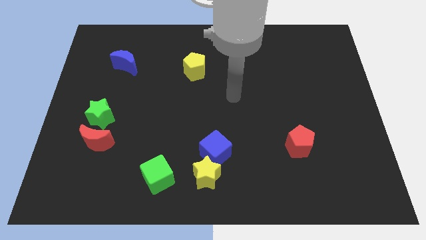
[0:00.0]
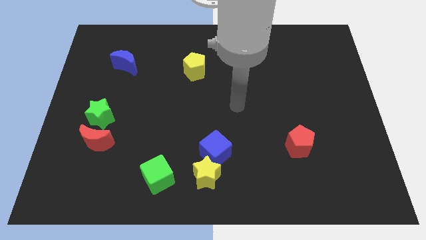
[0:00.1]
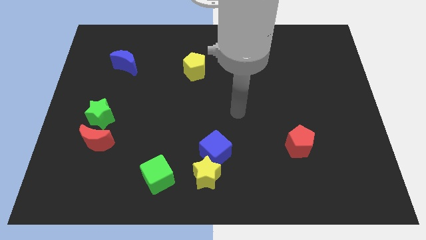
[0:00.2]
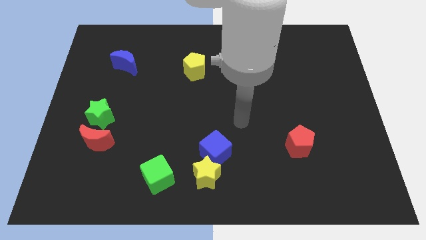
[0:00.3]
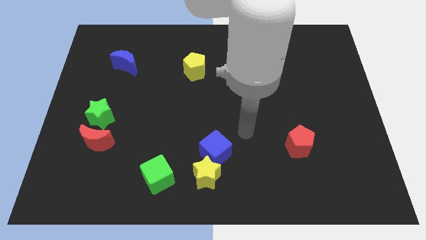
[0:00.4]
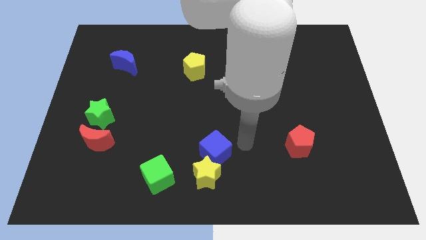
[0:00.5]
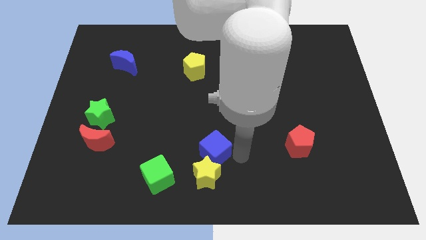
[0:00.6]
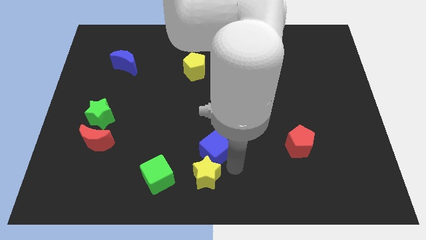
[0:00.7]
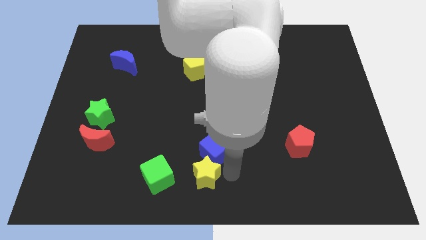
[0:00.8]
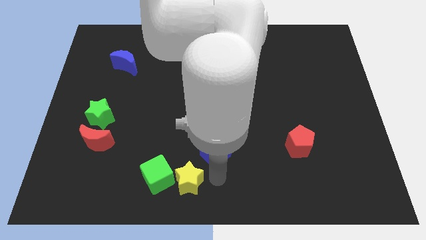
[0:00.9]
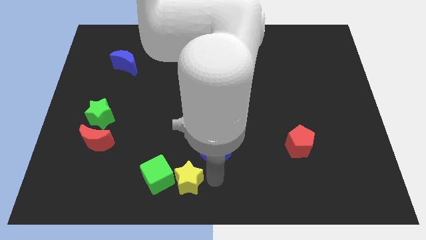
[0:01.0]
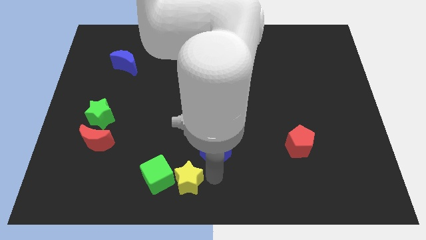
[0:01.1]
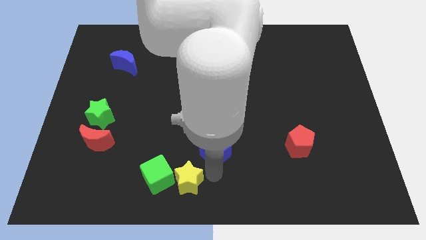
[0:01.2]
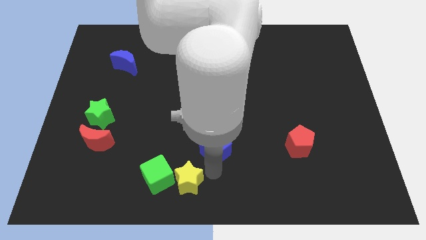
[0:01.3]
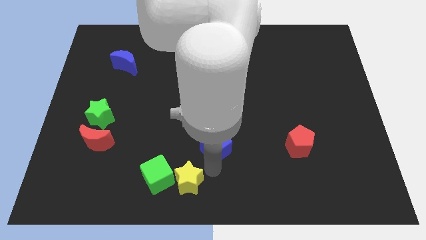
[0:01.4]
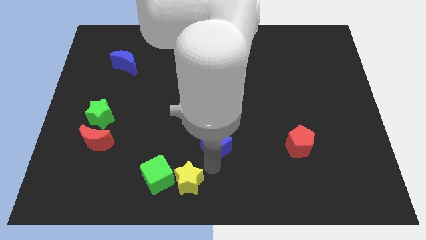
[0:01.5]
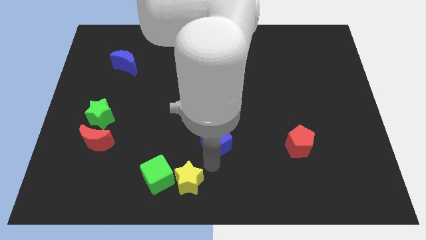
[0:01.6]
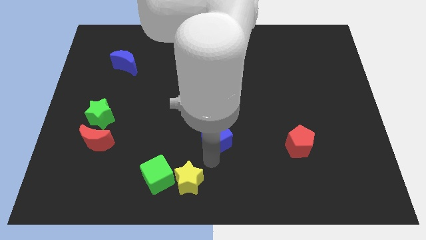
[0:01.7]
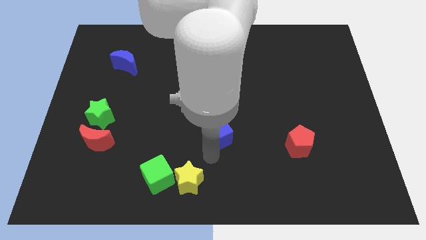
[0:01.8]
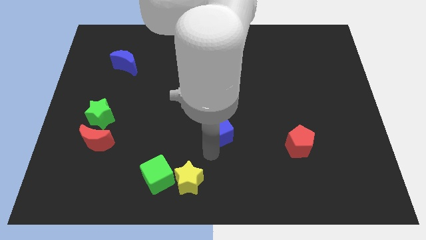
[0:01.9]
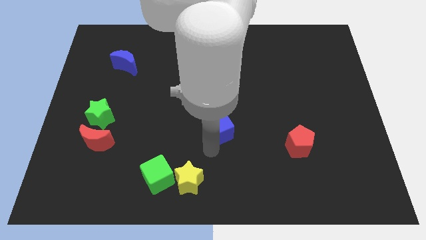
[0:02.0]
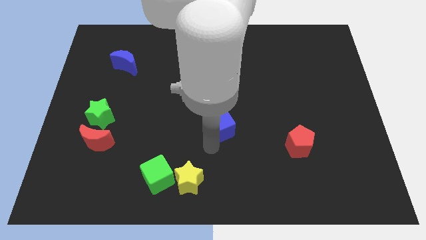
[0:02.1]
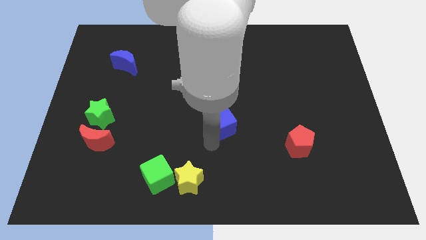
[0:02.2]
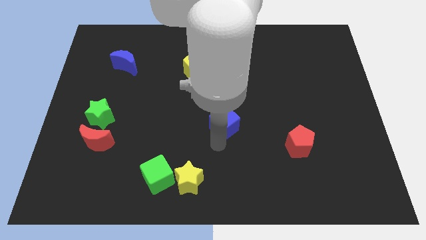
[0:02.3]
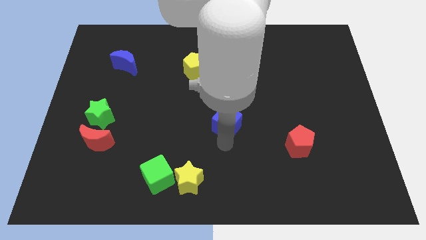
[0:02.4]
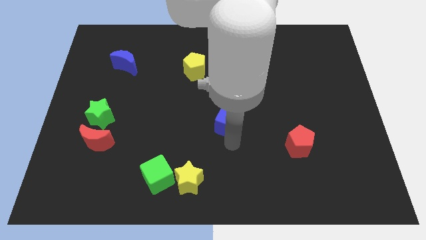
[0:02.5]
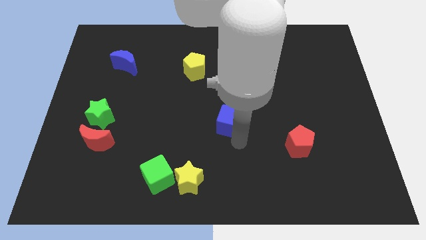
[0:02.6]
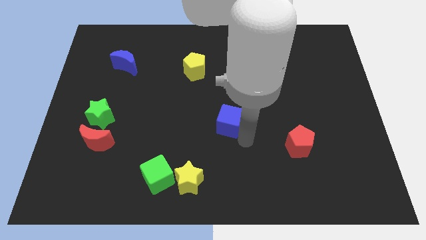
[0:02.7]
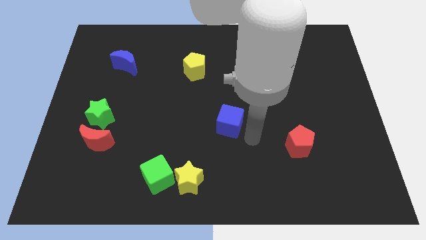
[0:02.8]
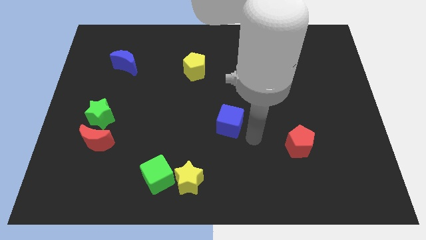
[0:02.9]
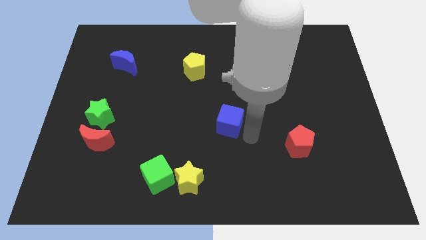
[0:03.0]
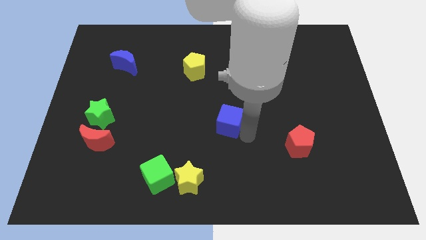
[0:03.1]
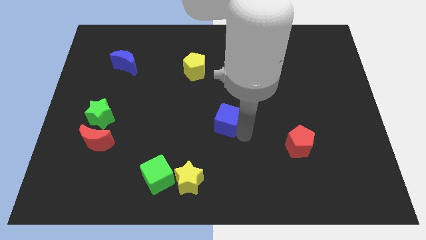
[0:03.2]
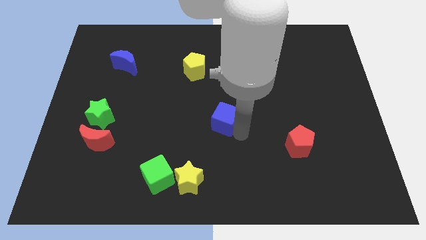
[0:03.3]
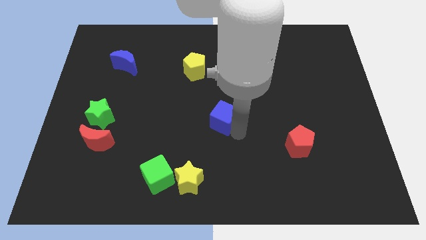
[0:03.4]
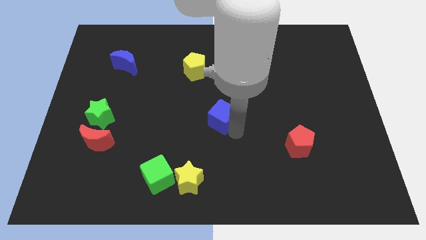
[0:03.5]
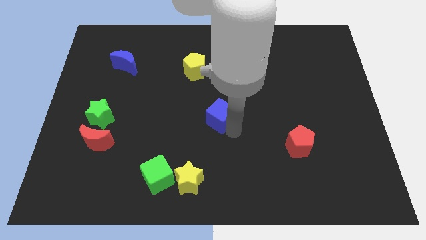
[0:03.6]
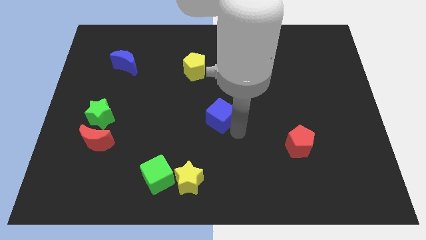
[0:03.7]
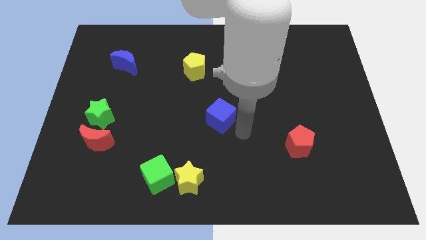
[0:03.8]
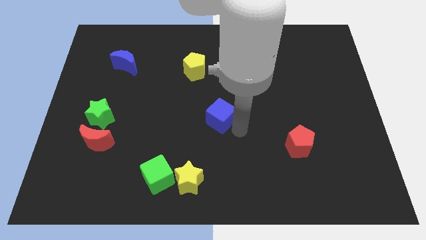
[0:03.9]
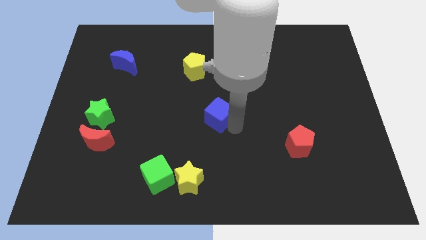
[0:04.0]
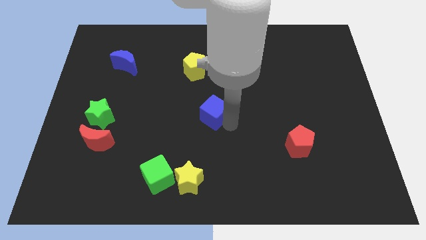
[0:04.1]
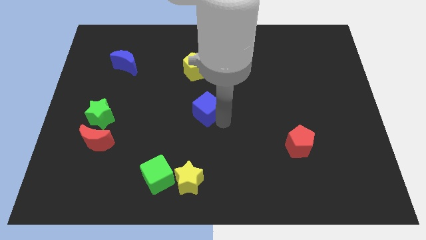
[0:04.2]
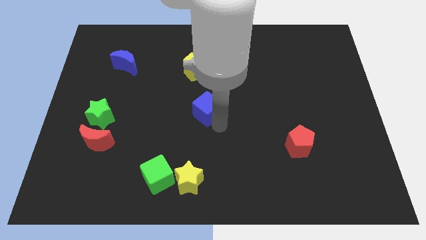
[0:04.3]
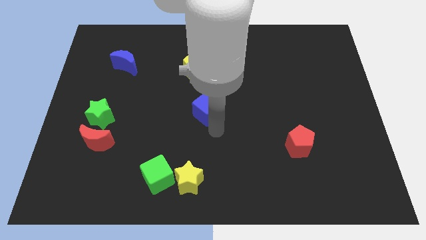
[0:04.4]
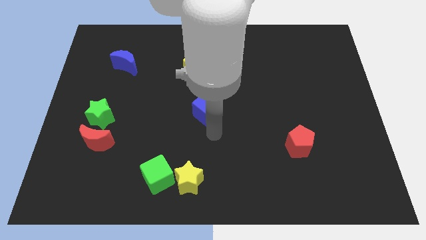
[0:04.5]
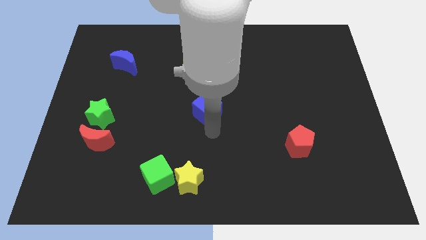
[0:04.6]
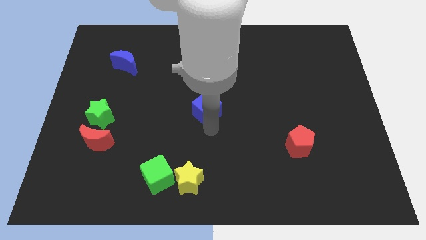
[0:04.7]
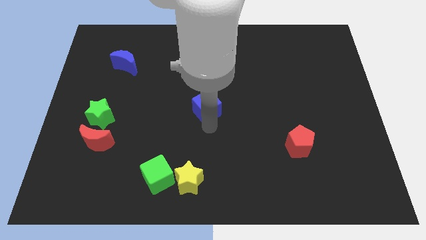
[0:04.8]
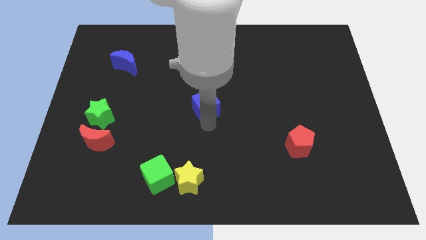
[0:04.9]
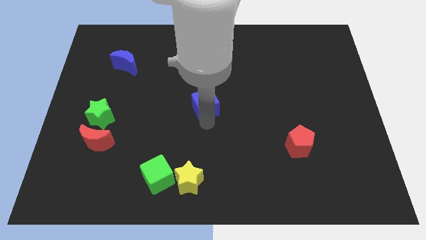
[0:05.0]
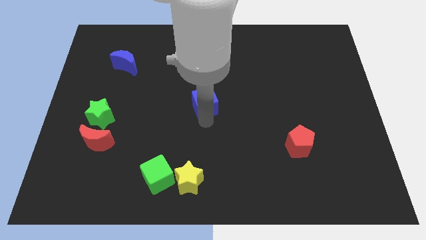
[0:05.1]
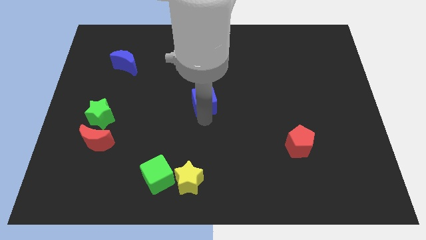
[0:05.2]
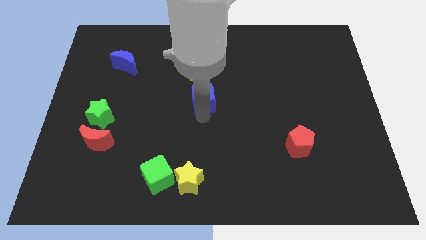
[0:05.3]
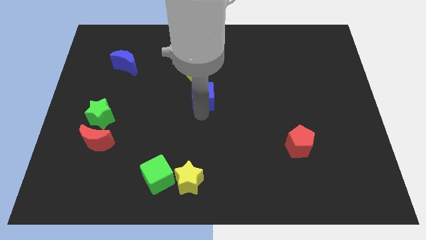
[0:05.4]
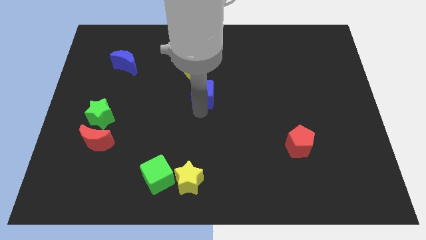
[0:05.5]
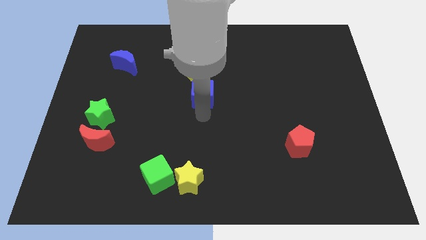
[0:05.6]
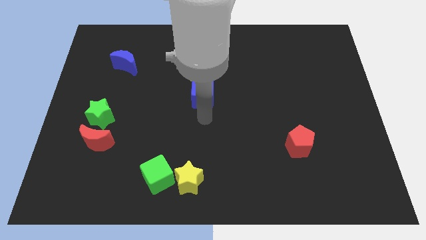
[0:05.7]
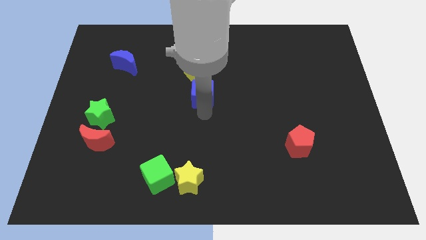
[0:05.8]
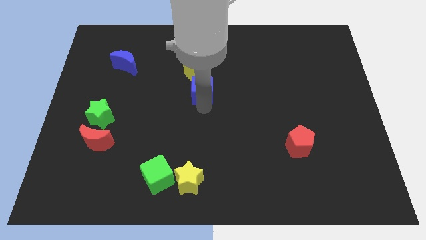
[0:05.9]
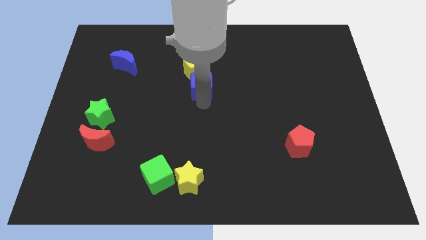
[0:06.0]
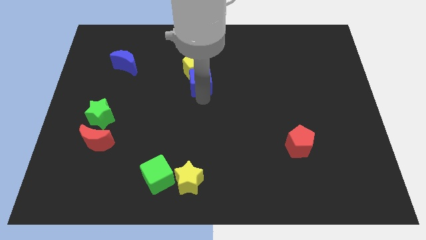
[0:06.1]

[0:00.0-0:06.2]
put the blue cube towards the yellow pentagon

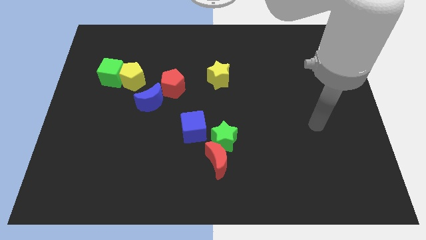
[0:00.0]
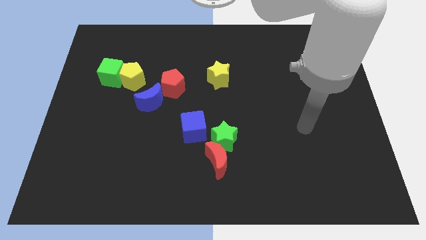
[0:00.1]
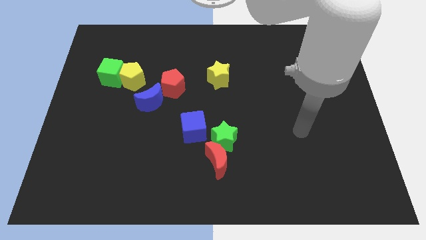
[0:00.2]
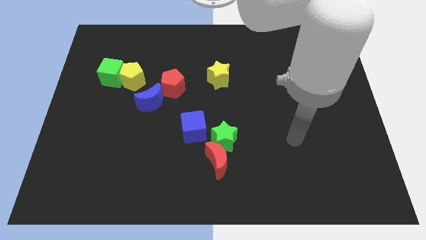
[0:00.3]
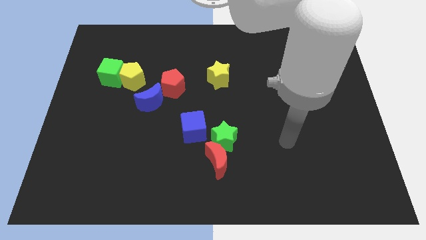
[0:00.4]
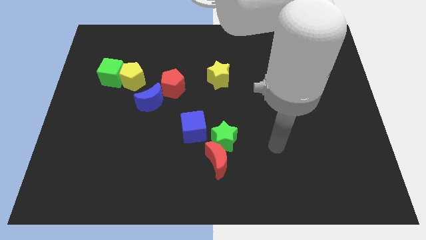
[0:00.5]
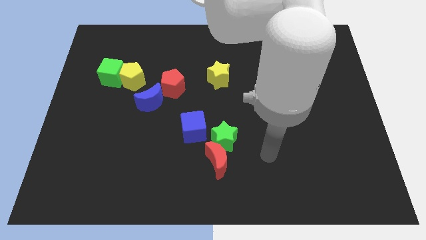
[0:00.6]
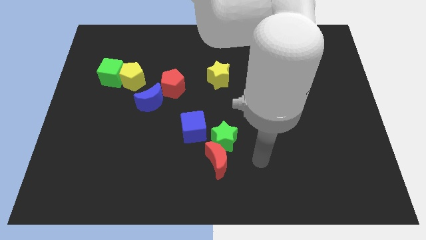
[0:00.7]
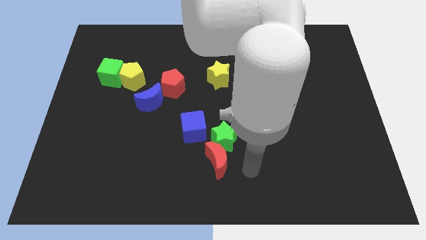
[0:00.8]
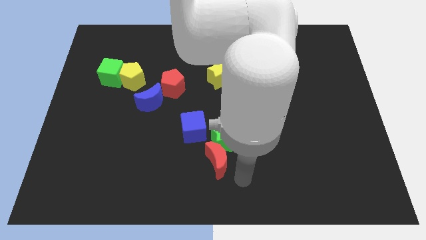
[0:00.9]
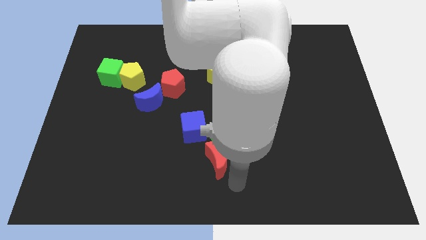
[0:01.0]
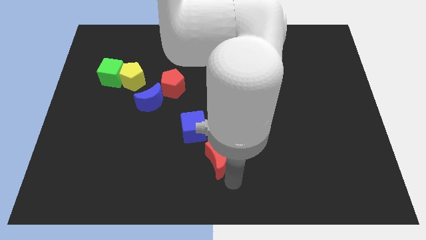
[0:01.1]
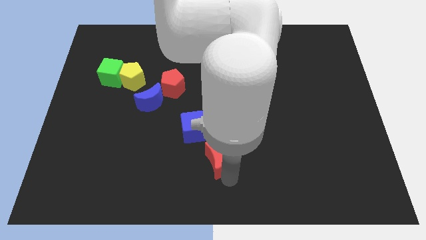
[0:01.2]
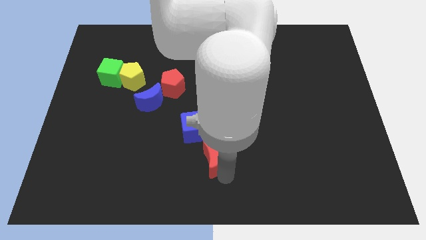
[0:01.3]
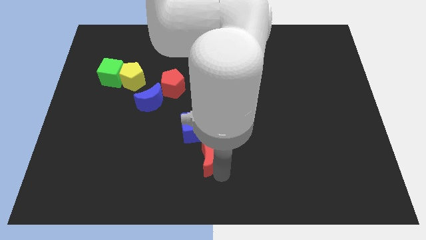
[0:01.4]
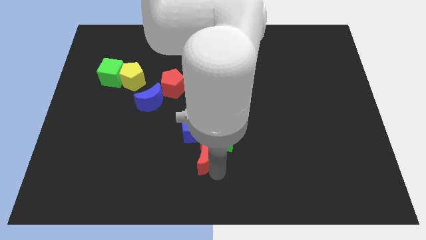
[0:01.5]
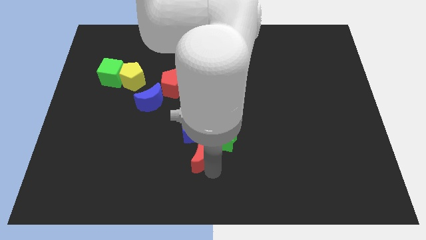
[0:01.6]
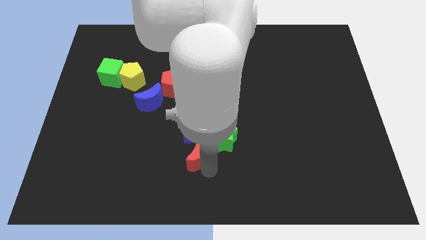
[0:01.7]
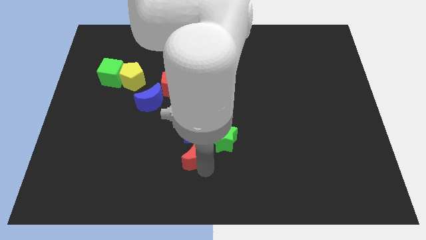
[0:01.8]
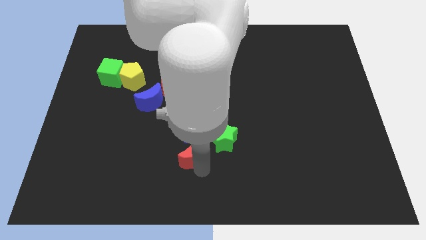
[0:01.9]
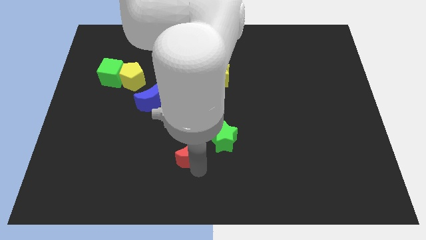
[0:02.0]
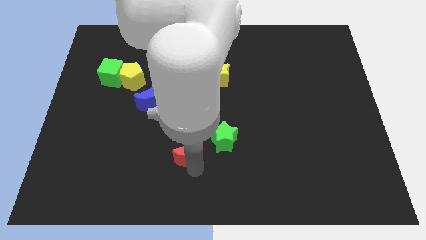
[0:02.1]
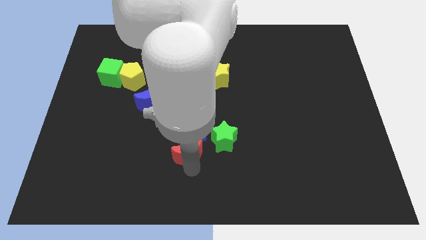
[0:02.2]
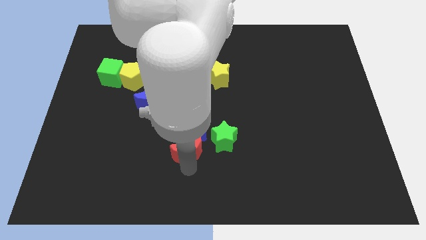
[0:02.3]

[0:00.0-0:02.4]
put the red moon close to the blue cube
